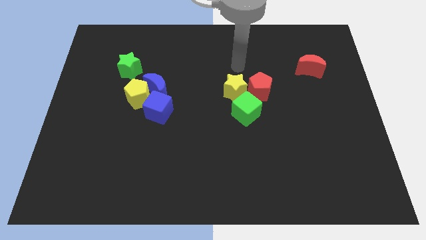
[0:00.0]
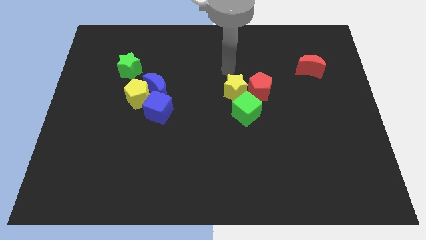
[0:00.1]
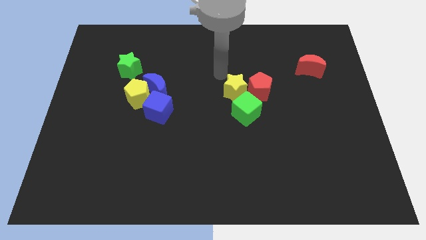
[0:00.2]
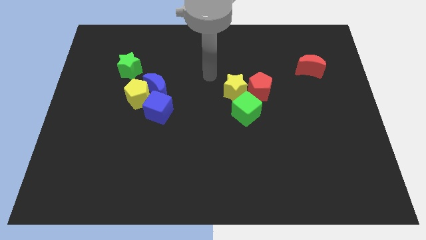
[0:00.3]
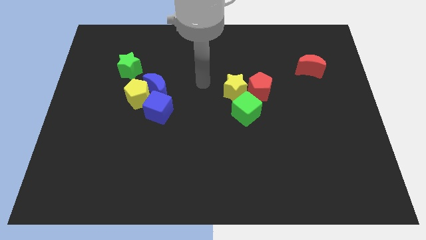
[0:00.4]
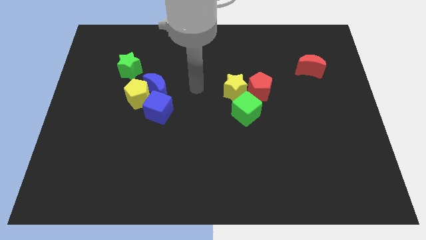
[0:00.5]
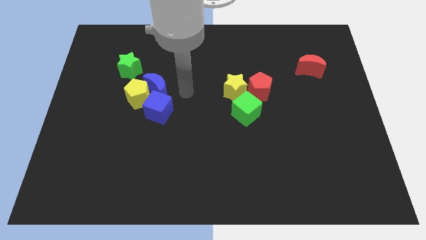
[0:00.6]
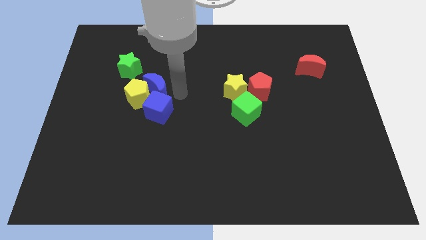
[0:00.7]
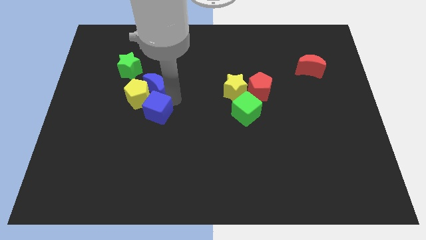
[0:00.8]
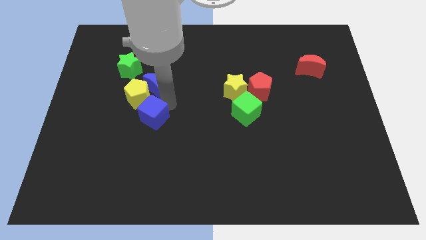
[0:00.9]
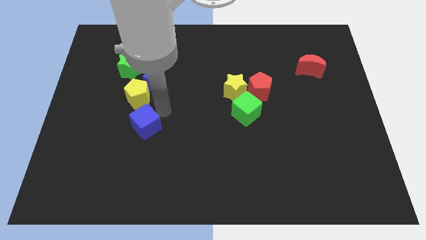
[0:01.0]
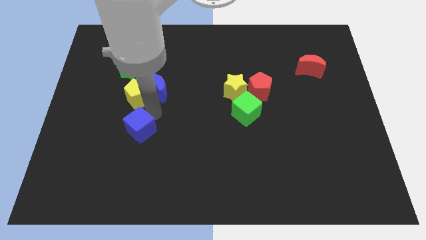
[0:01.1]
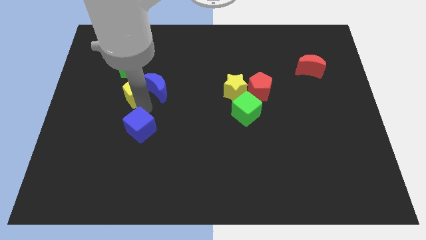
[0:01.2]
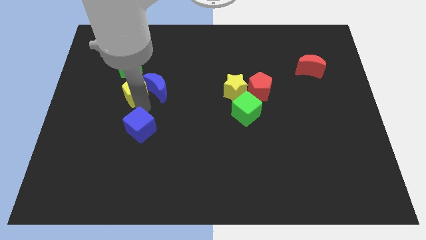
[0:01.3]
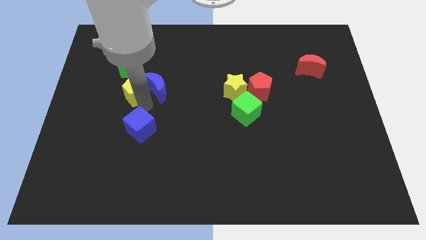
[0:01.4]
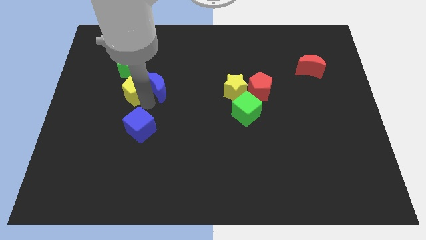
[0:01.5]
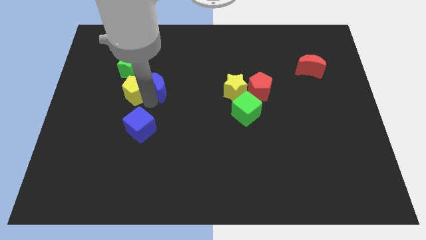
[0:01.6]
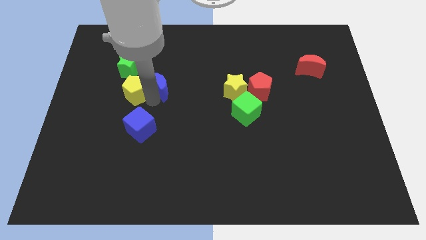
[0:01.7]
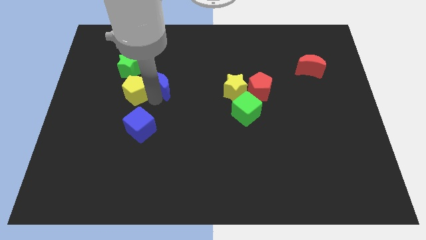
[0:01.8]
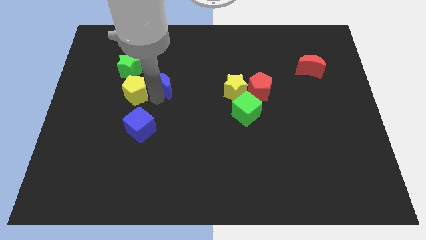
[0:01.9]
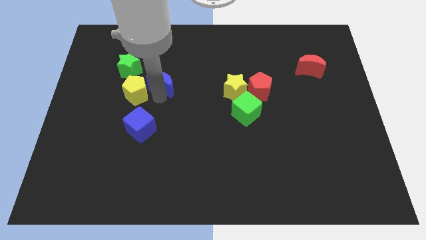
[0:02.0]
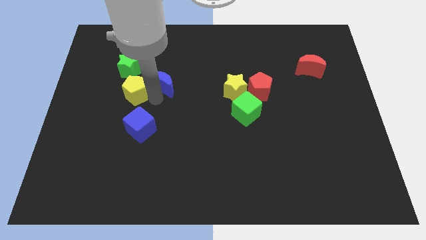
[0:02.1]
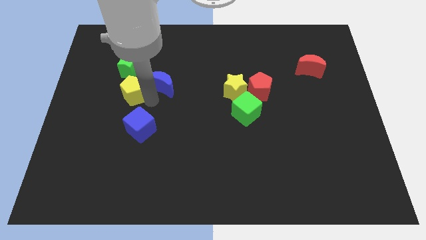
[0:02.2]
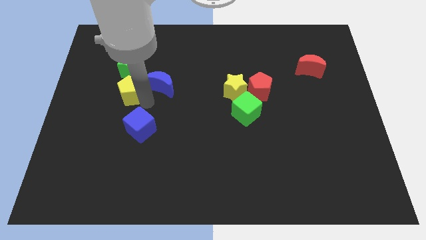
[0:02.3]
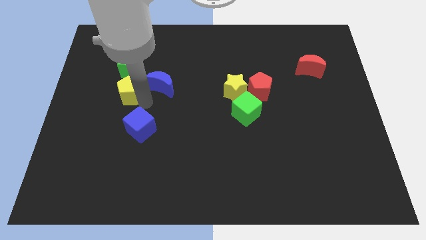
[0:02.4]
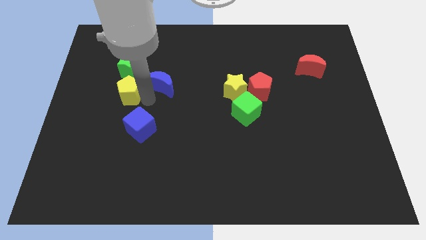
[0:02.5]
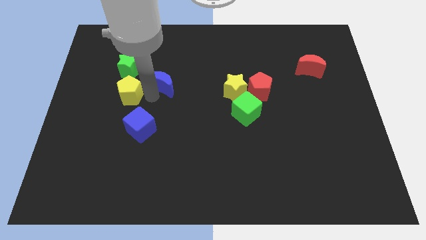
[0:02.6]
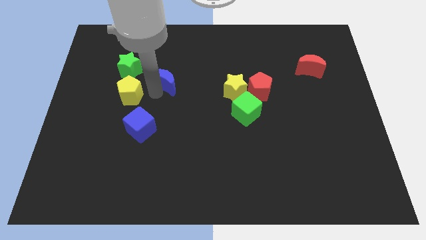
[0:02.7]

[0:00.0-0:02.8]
pull the blue moon apart from the yellow pentagon and blue cube

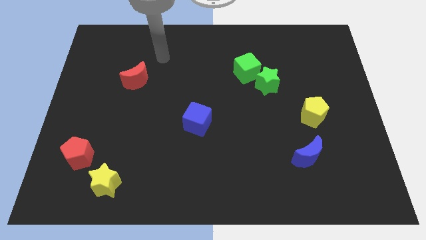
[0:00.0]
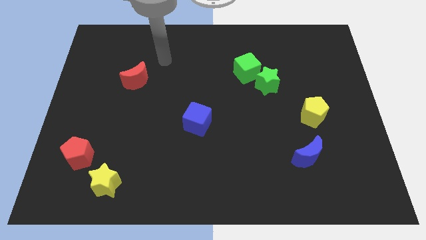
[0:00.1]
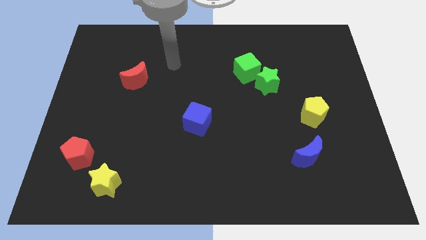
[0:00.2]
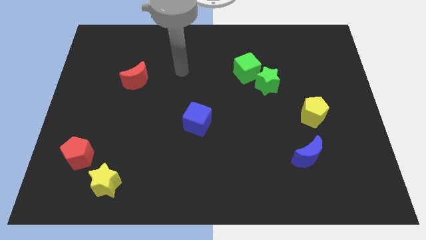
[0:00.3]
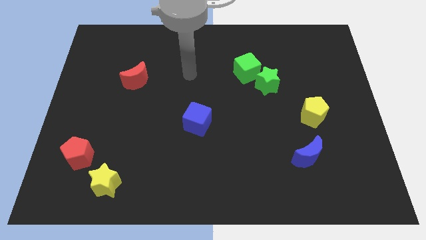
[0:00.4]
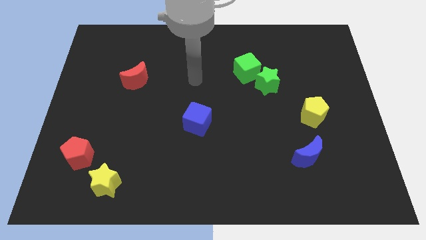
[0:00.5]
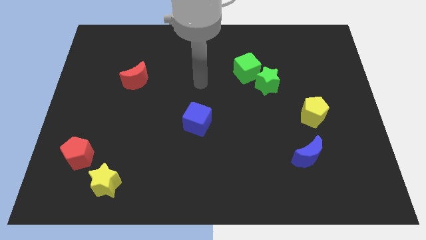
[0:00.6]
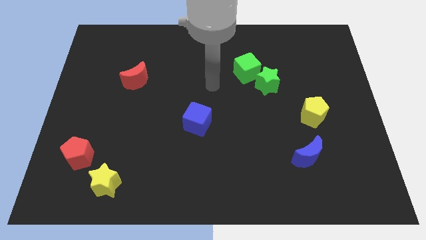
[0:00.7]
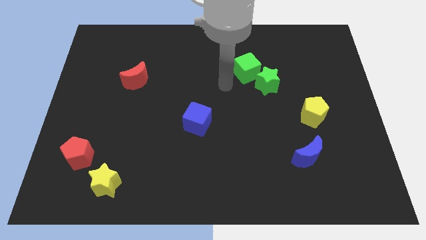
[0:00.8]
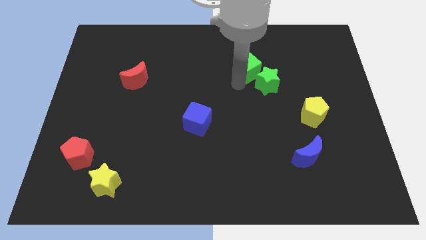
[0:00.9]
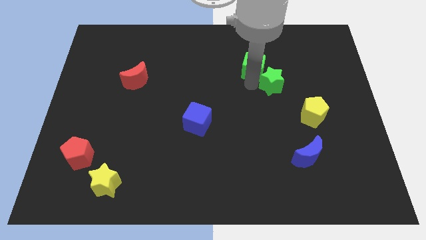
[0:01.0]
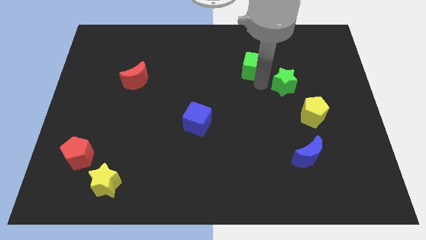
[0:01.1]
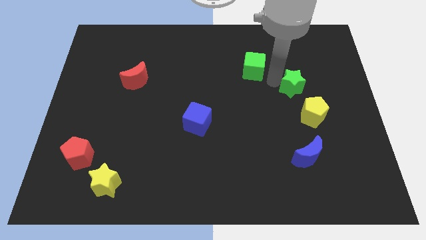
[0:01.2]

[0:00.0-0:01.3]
move the green cube away from the green star

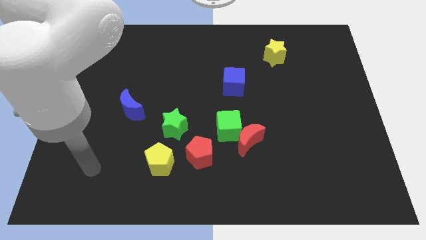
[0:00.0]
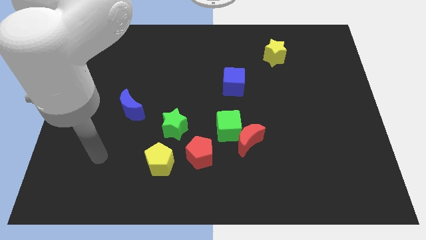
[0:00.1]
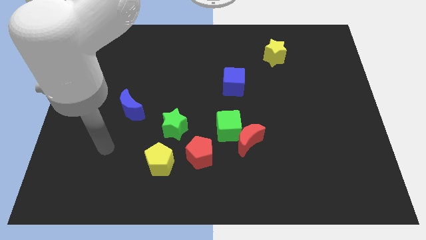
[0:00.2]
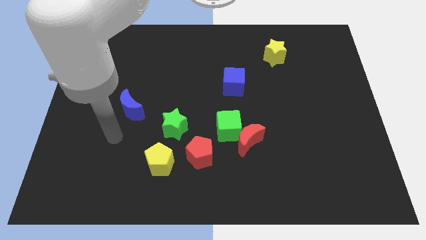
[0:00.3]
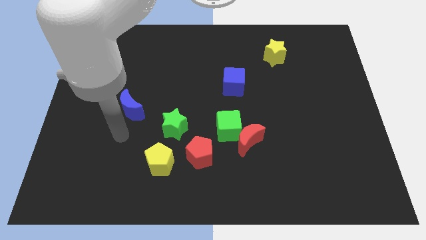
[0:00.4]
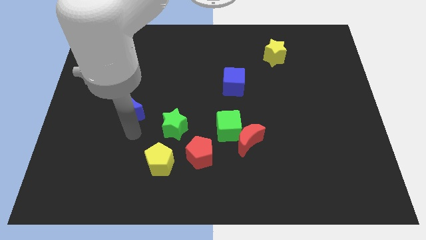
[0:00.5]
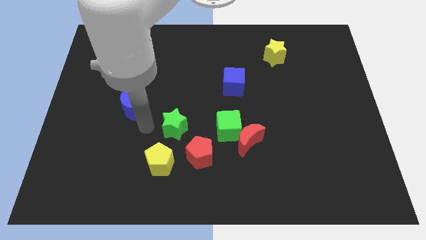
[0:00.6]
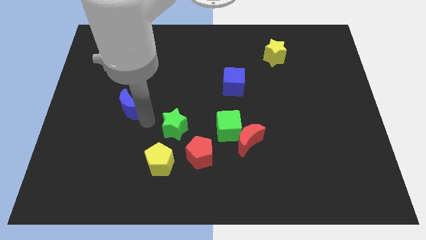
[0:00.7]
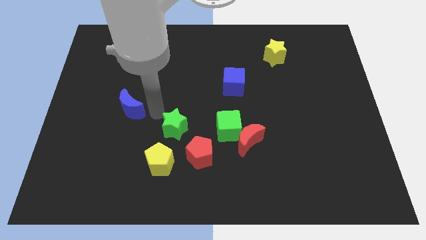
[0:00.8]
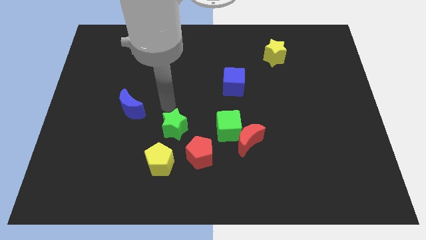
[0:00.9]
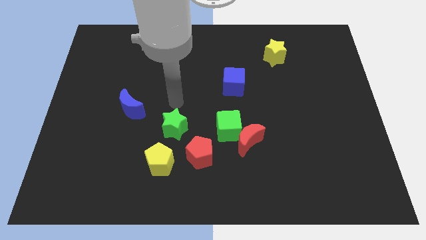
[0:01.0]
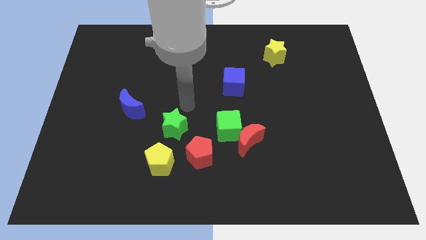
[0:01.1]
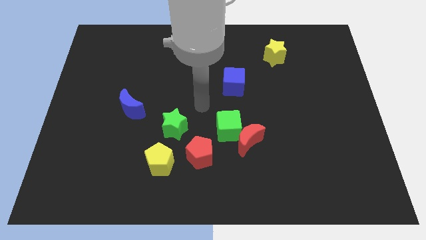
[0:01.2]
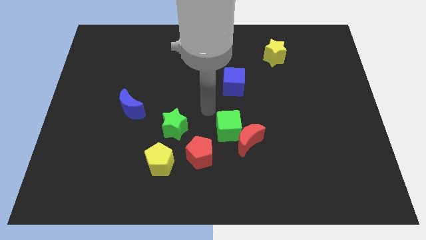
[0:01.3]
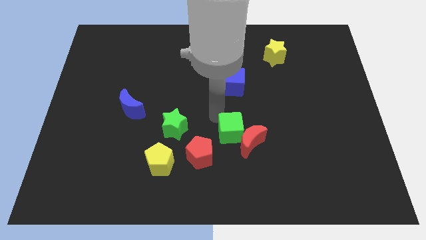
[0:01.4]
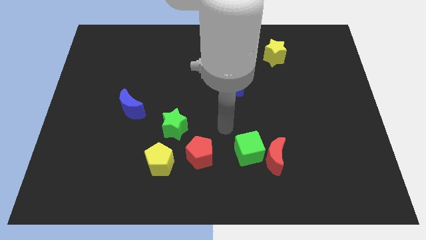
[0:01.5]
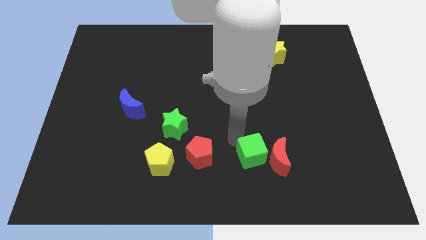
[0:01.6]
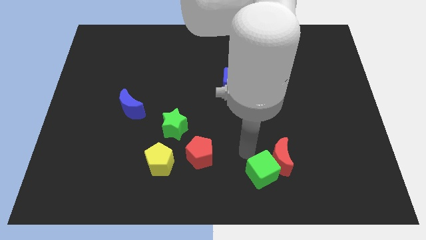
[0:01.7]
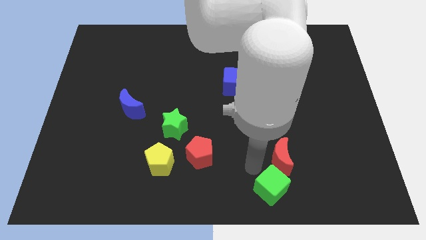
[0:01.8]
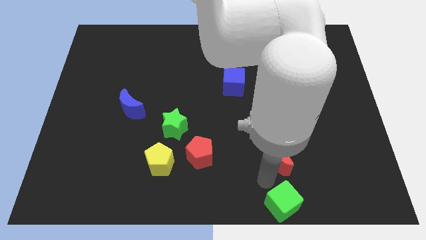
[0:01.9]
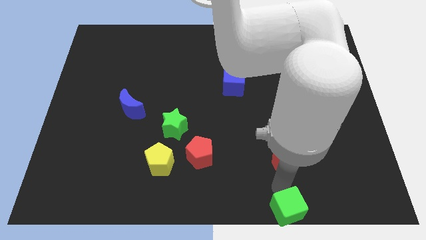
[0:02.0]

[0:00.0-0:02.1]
pull the red moon apart from the green cube

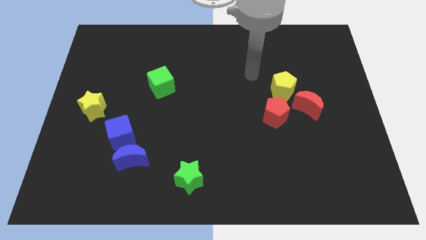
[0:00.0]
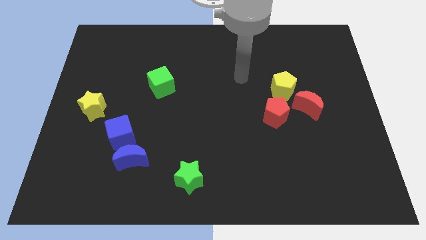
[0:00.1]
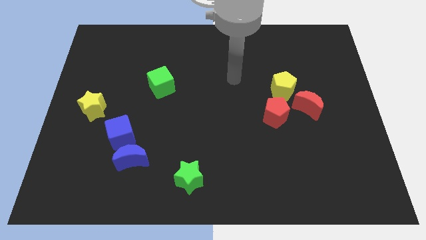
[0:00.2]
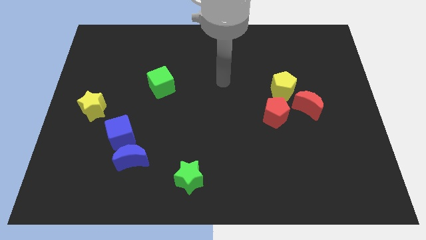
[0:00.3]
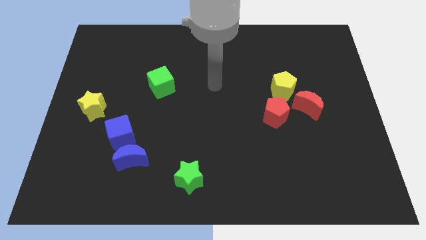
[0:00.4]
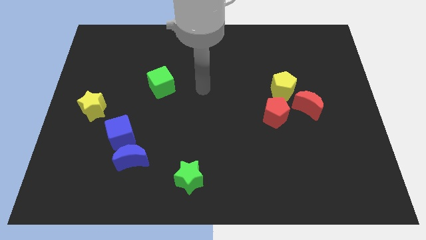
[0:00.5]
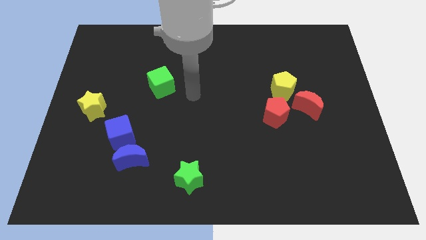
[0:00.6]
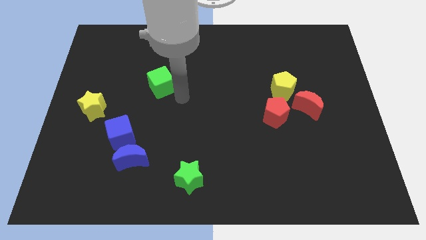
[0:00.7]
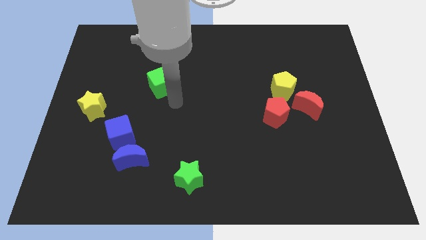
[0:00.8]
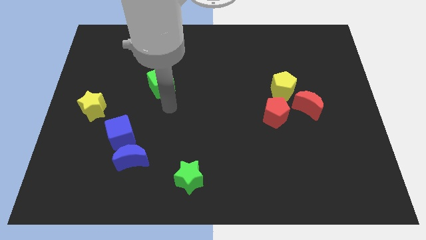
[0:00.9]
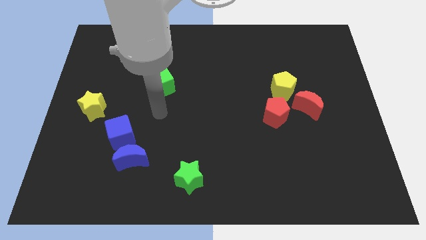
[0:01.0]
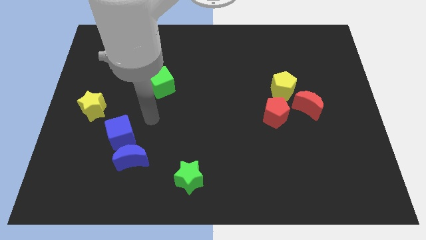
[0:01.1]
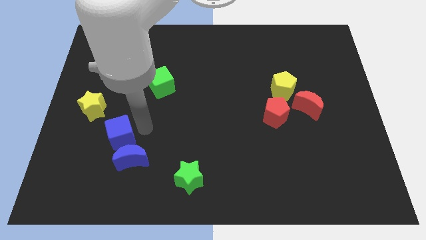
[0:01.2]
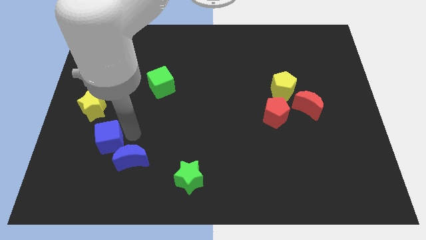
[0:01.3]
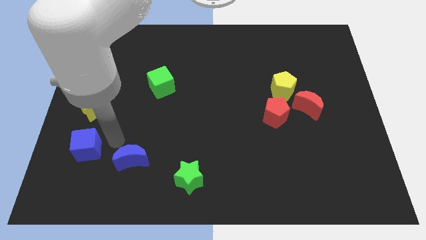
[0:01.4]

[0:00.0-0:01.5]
separate the blue moon from the blue cube

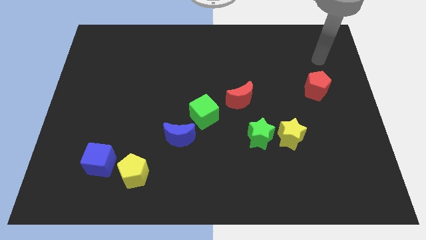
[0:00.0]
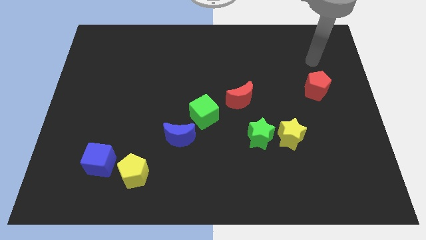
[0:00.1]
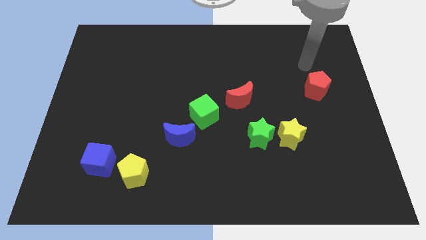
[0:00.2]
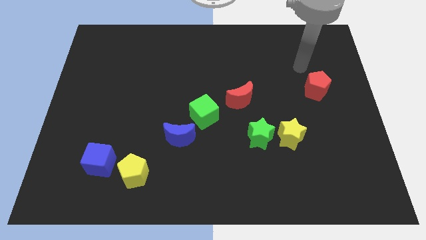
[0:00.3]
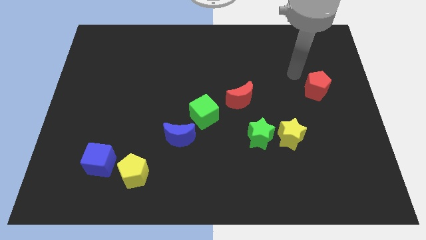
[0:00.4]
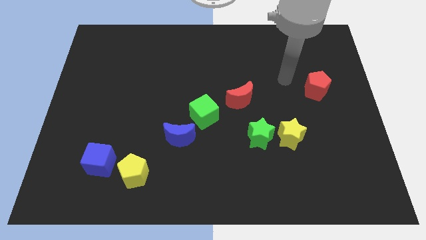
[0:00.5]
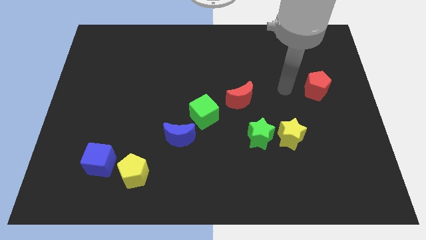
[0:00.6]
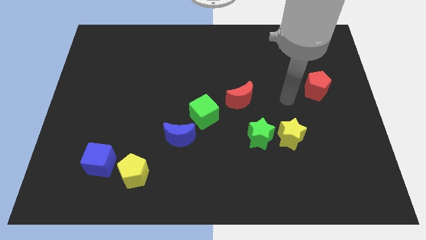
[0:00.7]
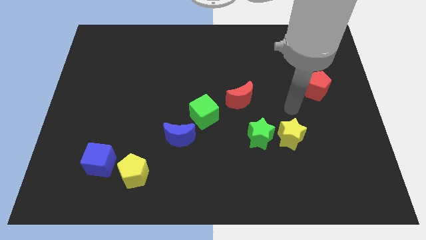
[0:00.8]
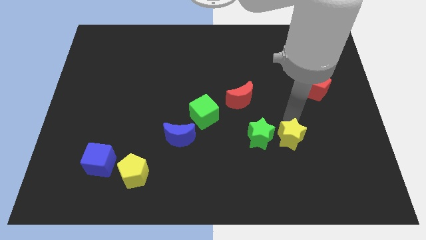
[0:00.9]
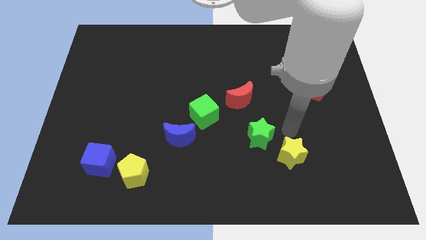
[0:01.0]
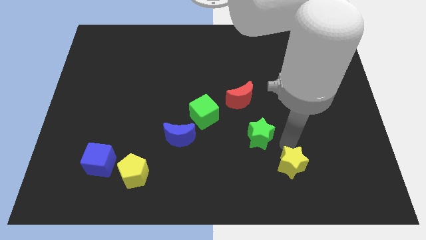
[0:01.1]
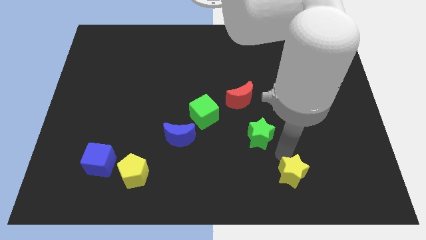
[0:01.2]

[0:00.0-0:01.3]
separate the green star from the yellow star

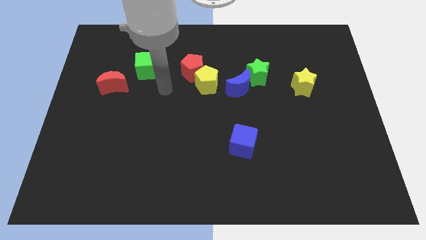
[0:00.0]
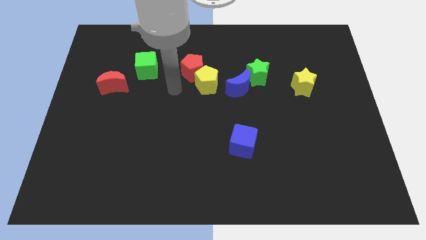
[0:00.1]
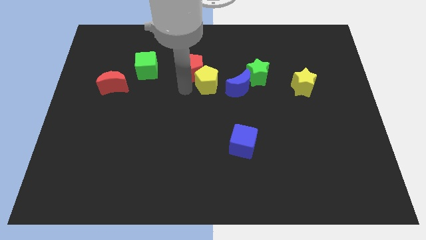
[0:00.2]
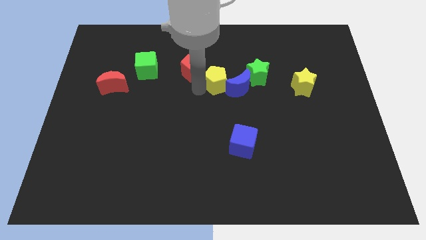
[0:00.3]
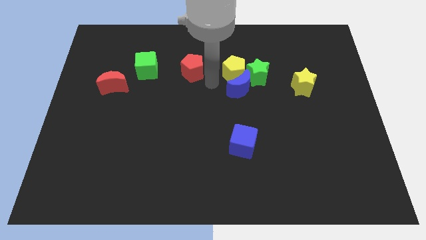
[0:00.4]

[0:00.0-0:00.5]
pull the red pentagon apart from the yellow pentagon
